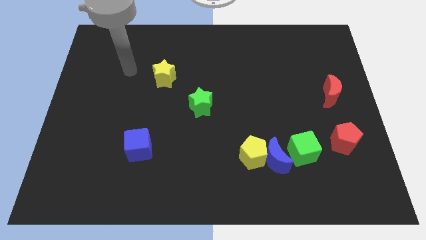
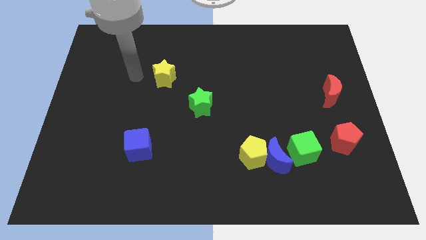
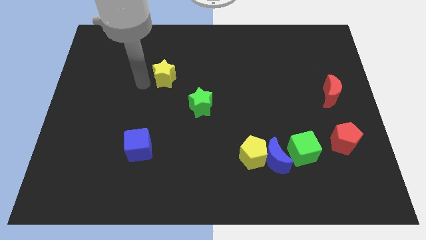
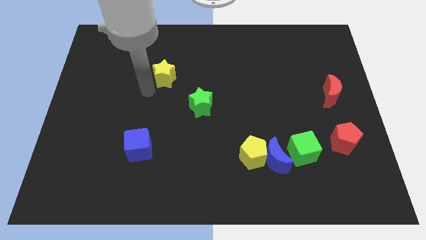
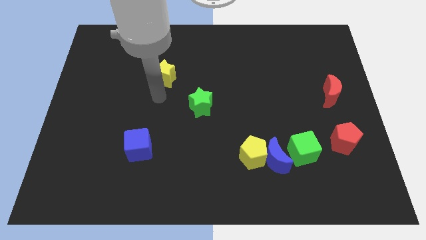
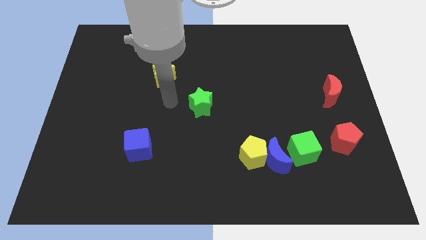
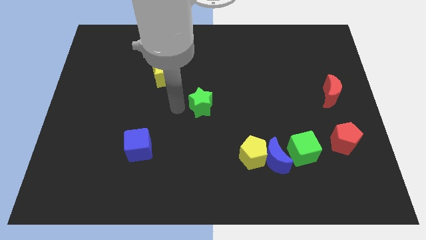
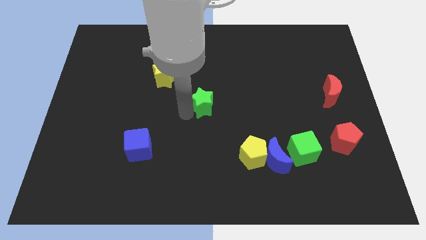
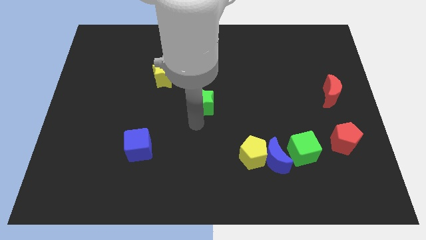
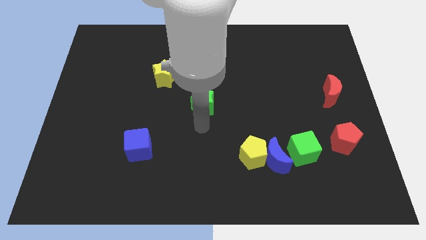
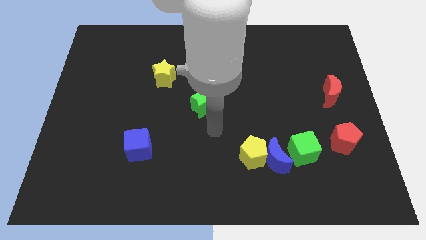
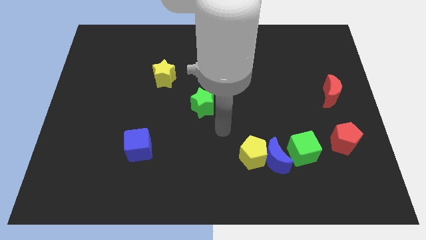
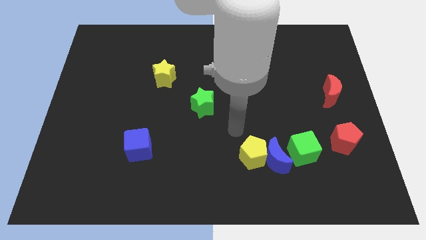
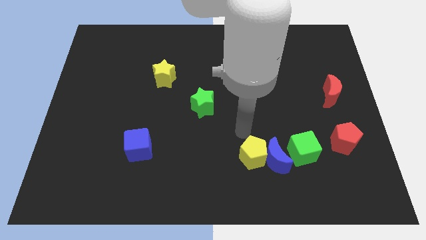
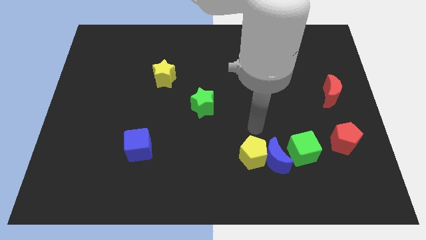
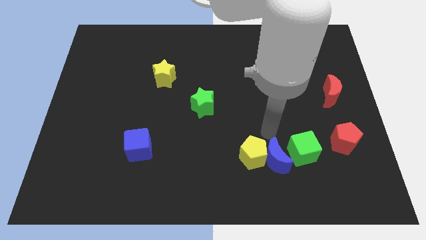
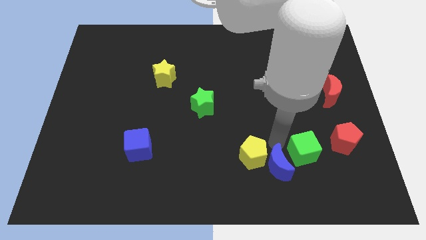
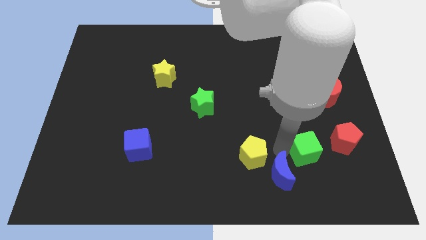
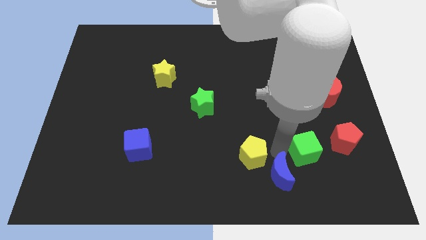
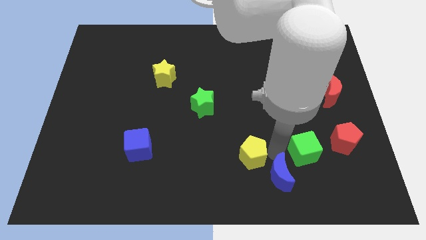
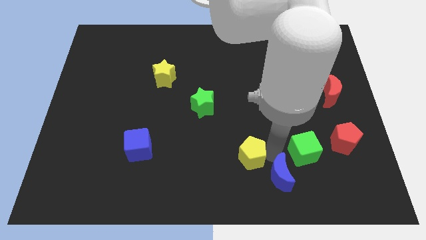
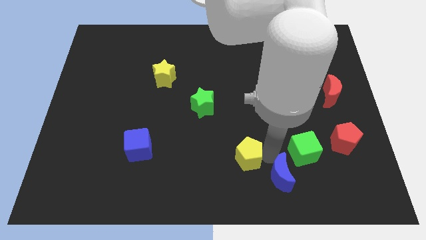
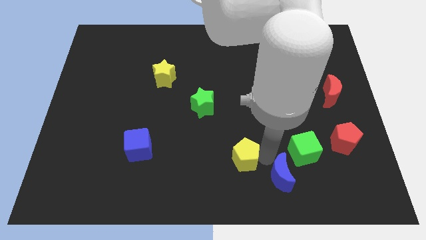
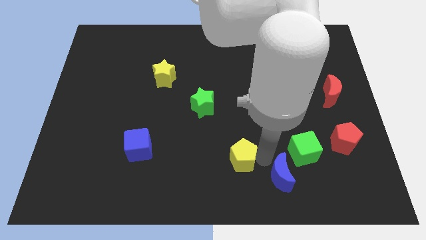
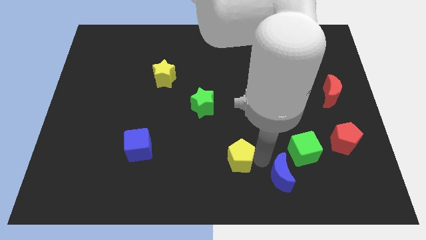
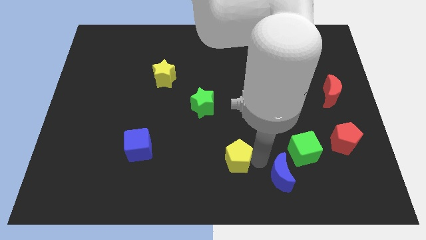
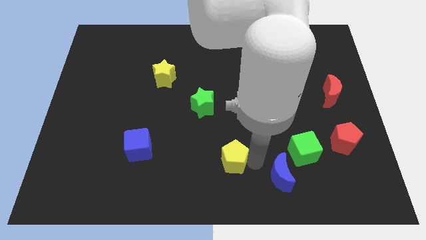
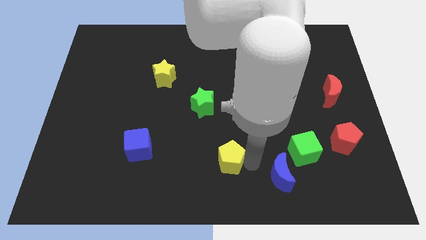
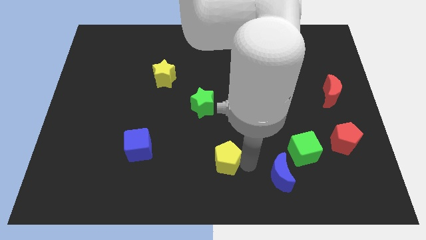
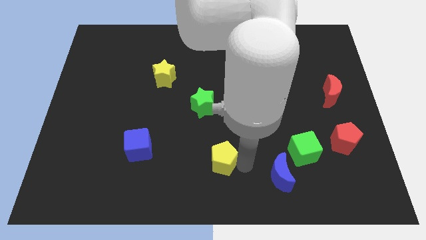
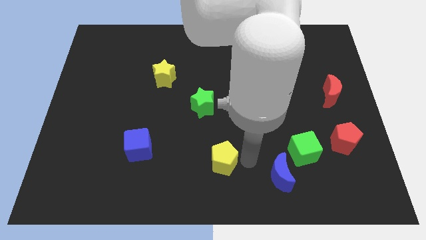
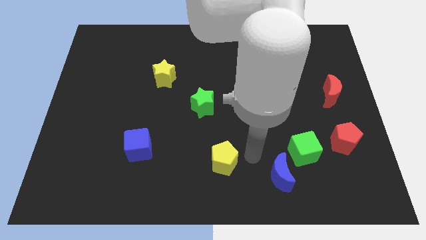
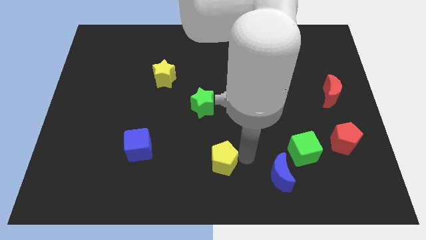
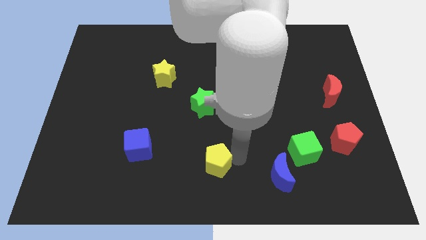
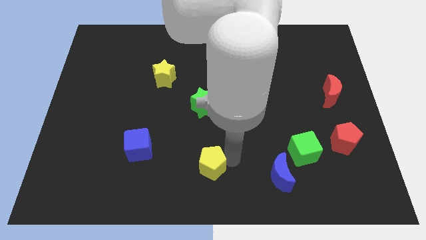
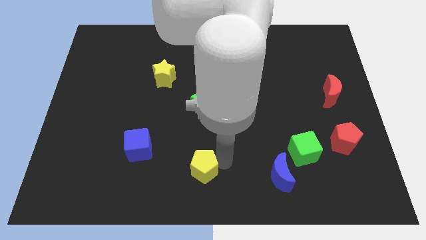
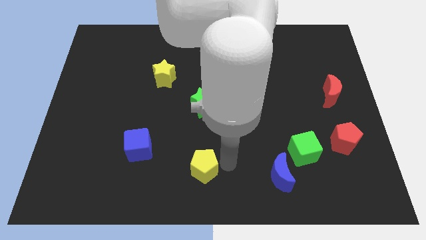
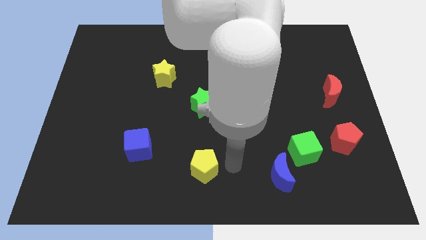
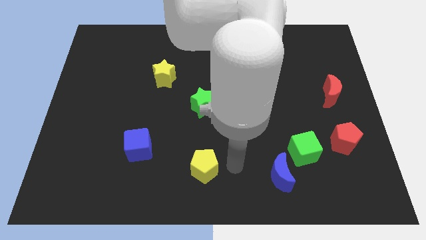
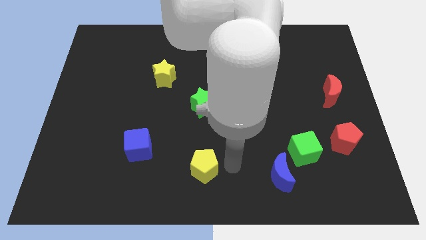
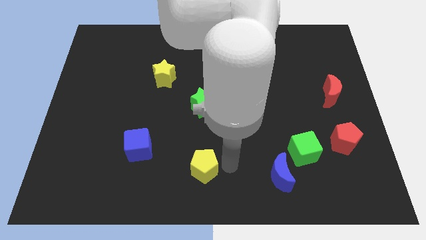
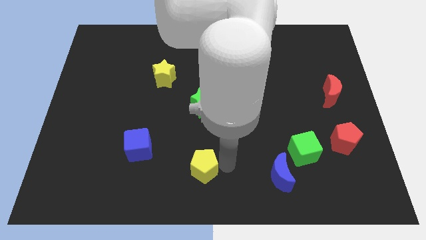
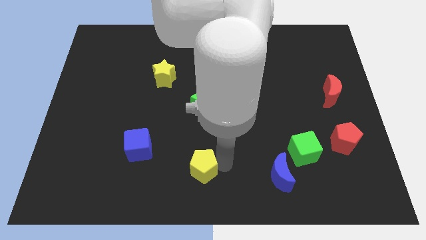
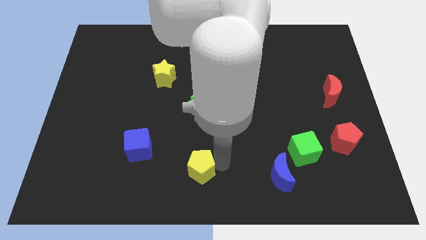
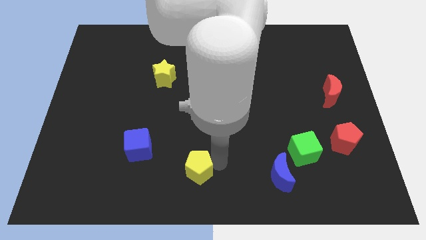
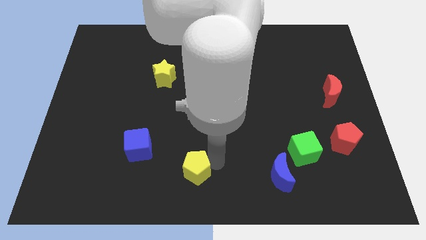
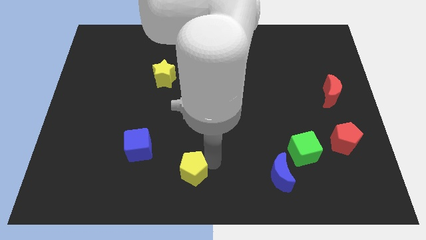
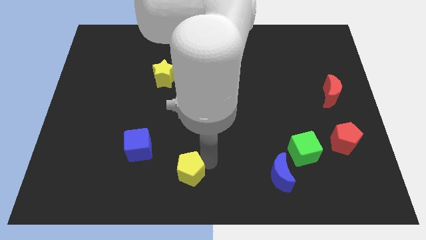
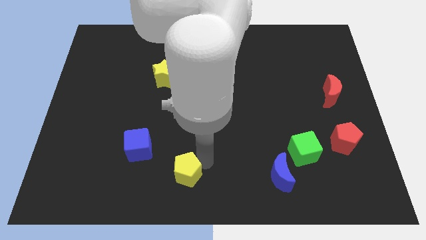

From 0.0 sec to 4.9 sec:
push the yellow pentagon to the bottom right side of the blue cube

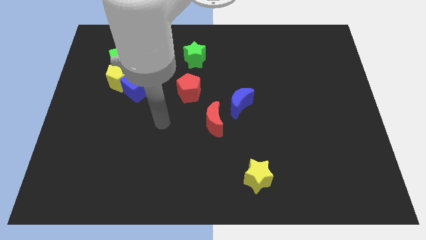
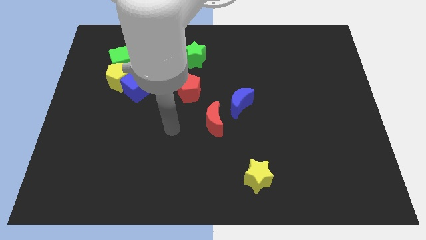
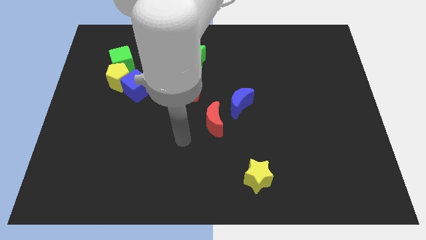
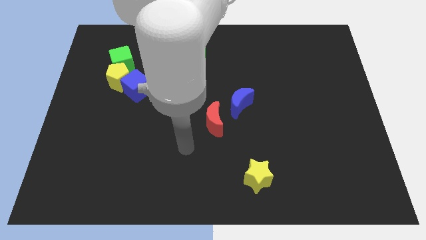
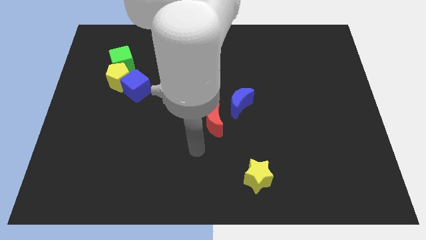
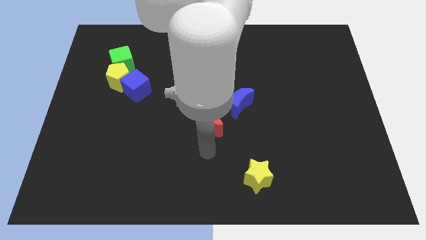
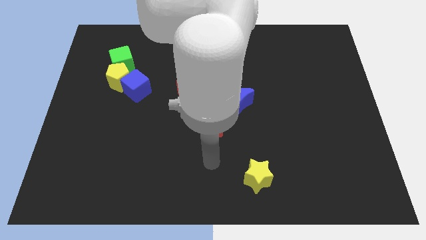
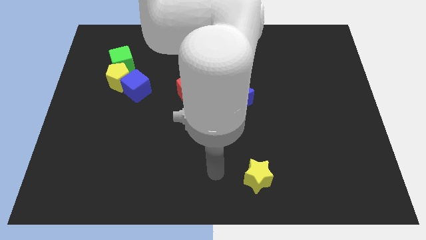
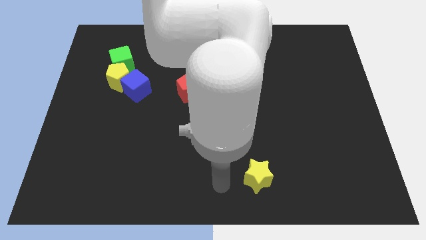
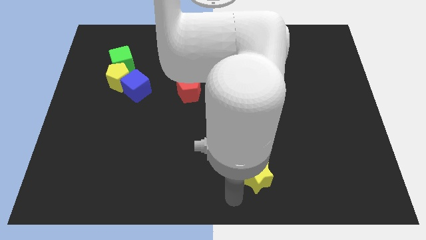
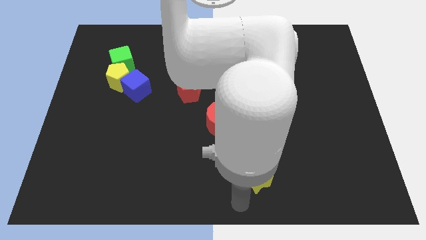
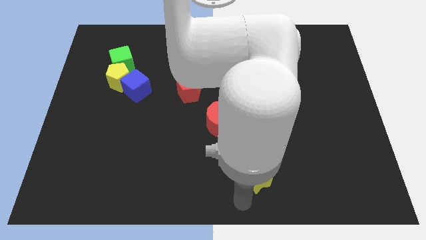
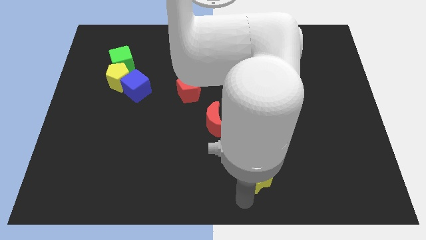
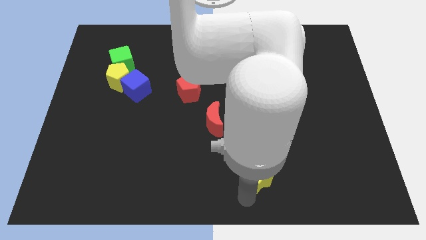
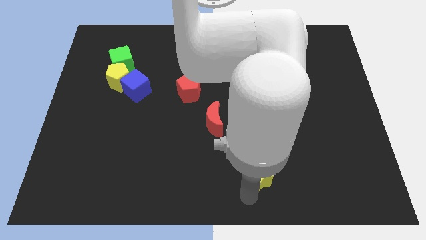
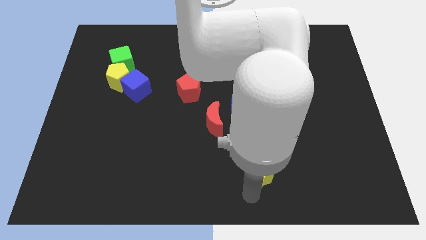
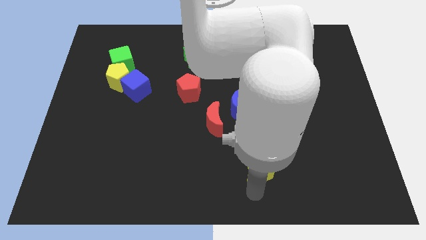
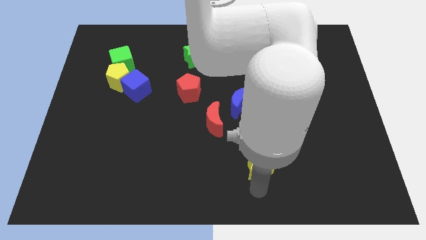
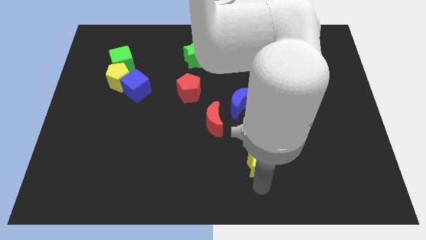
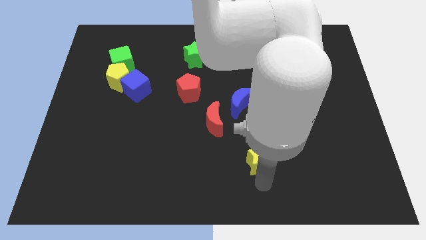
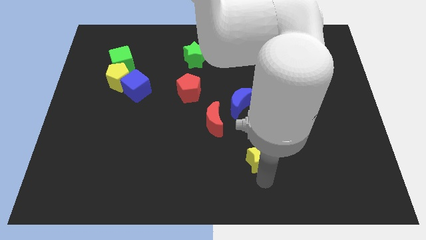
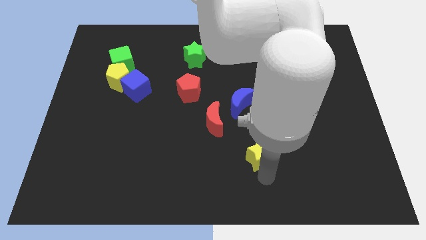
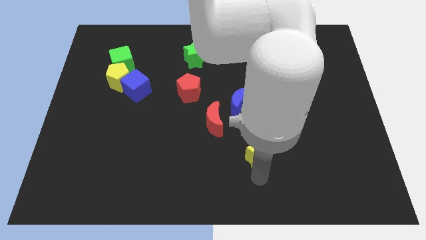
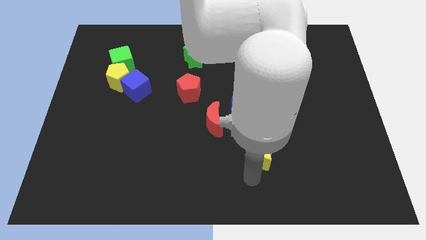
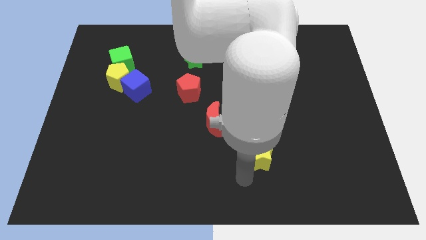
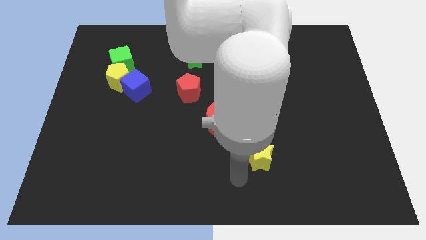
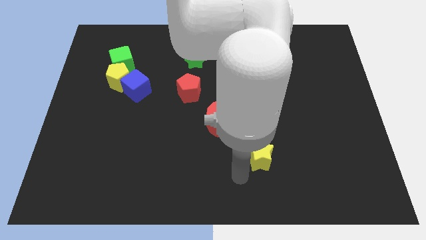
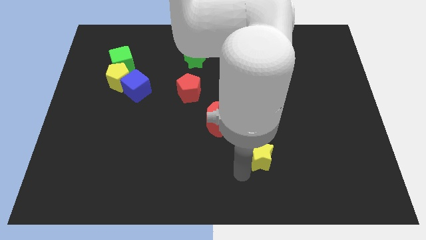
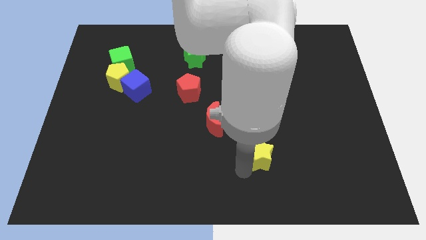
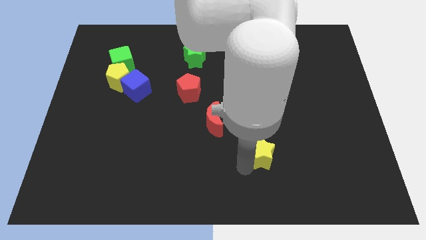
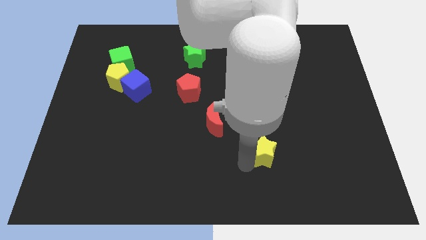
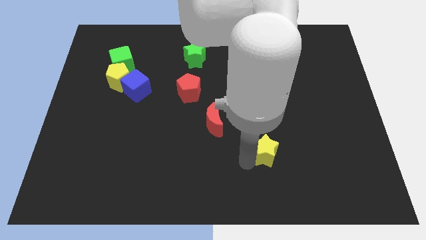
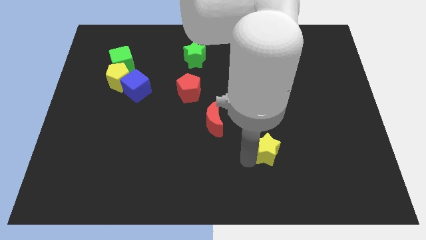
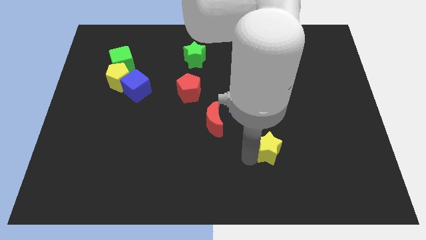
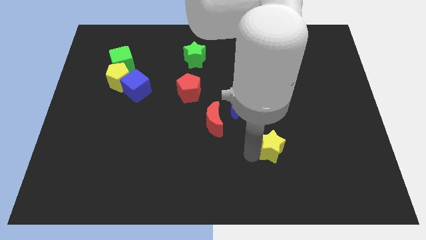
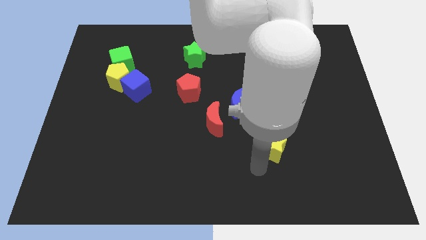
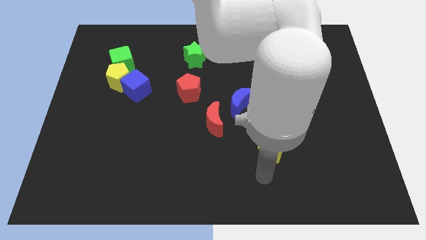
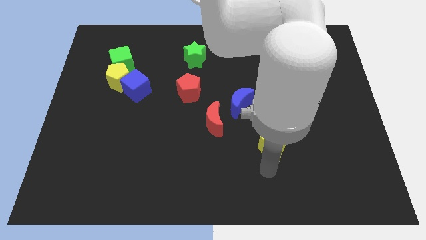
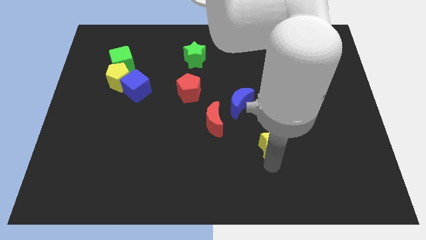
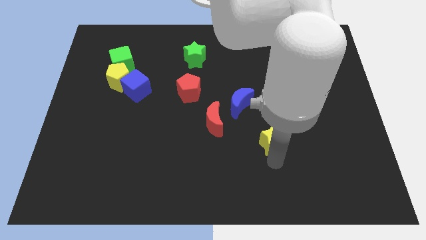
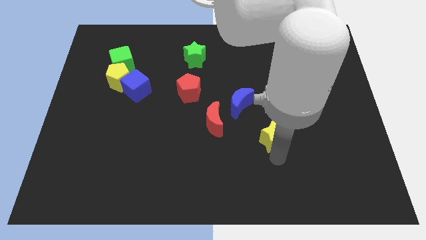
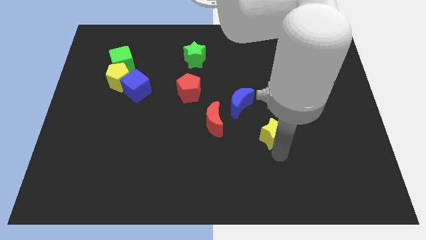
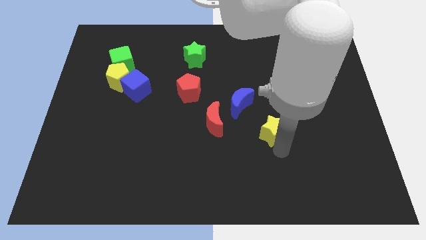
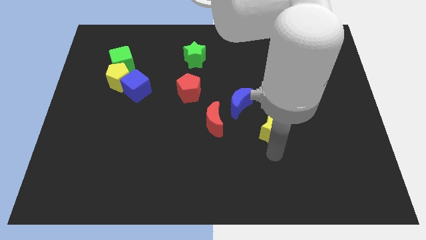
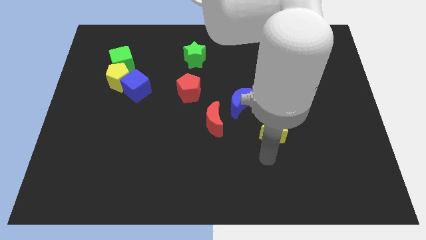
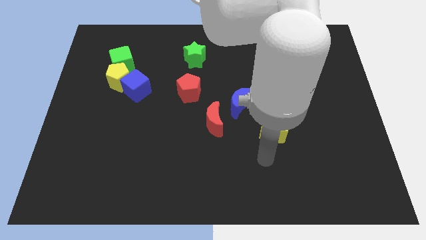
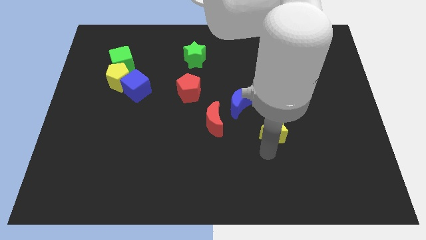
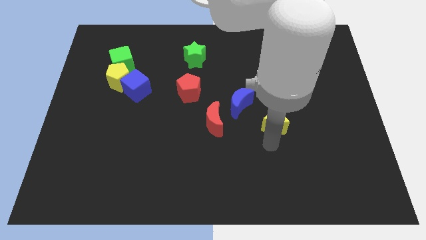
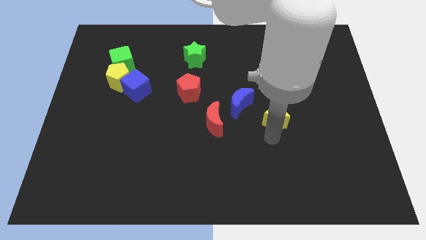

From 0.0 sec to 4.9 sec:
put the yellow star to the right of the blue moon
